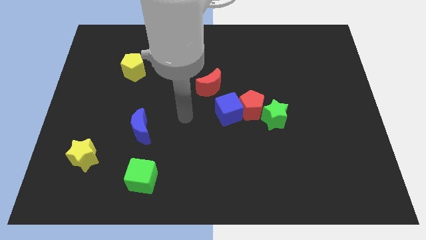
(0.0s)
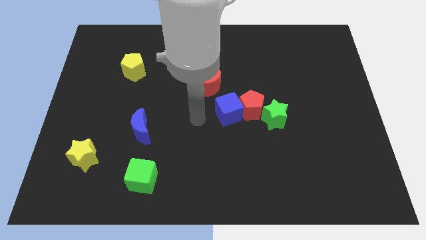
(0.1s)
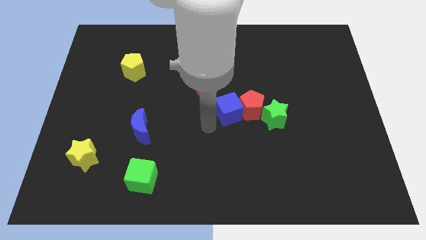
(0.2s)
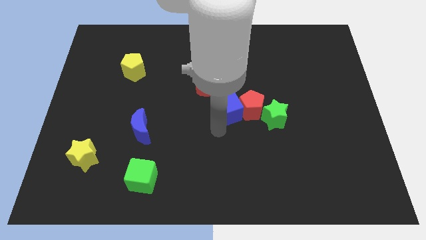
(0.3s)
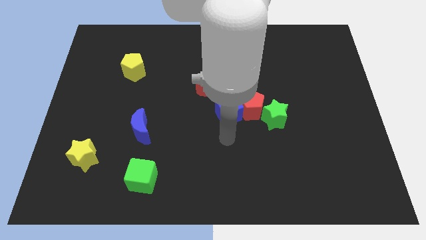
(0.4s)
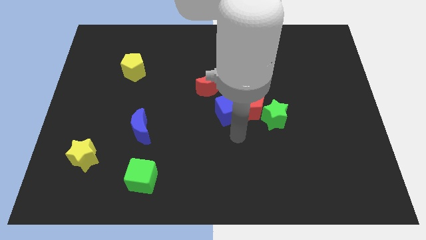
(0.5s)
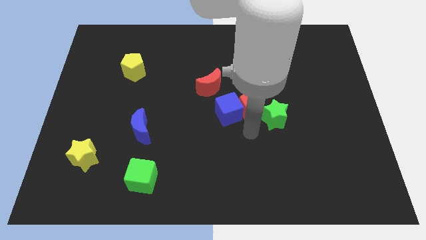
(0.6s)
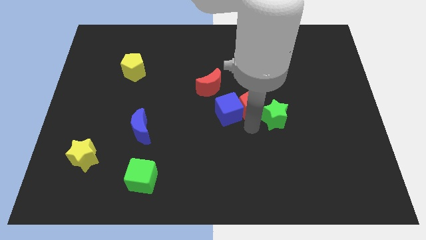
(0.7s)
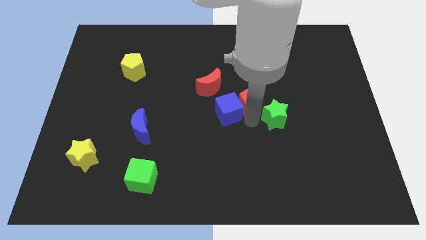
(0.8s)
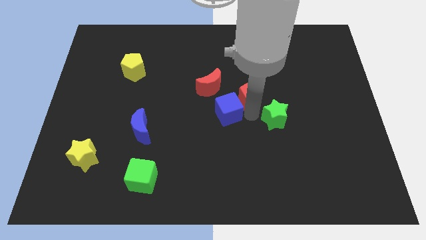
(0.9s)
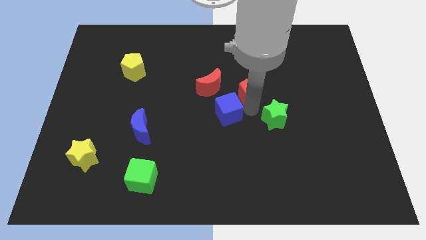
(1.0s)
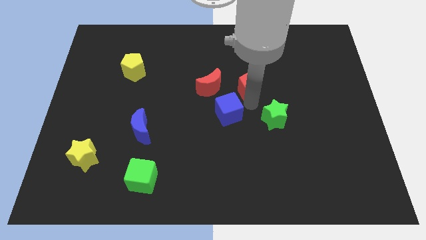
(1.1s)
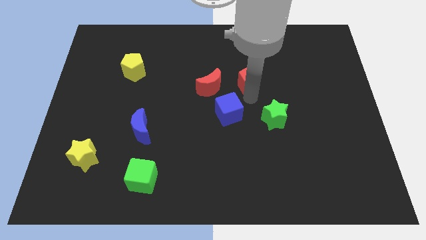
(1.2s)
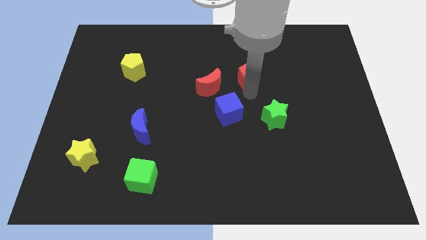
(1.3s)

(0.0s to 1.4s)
move the red pentagon away from the blue cube and green star

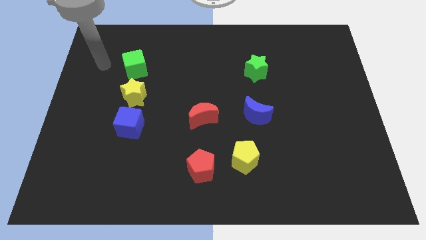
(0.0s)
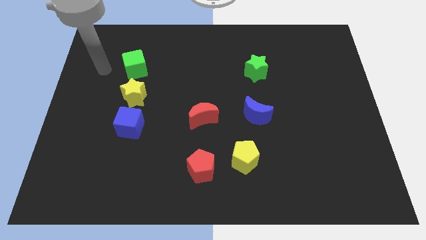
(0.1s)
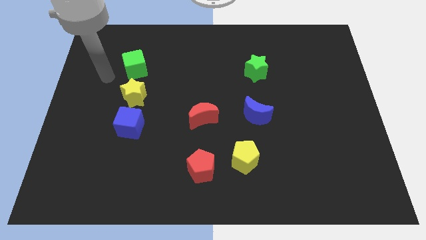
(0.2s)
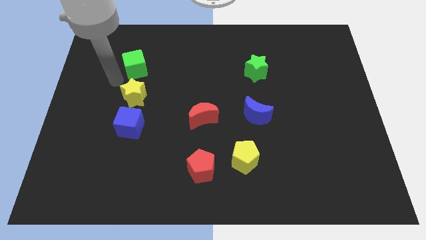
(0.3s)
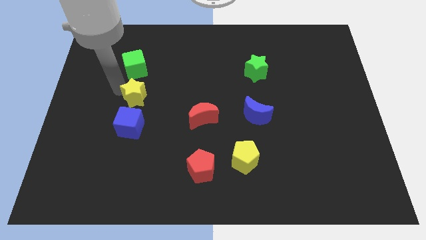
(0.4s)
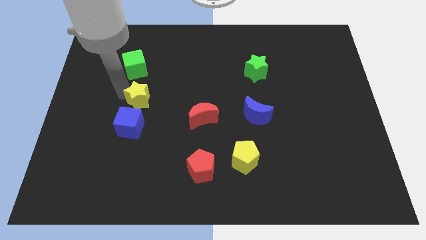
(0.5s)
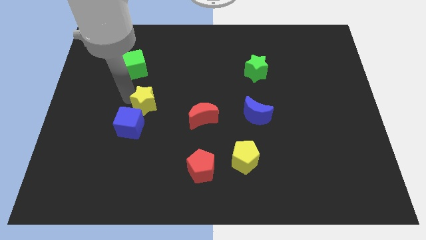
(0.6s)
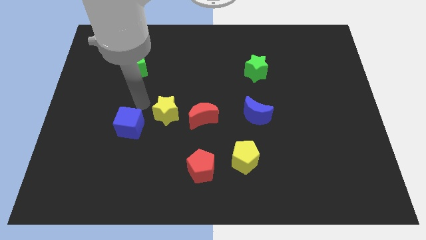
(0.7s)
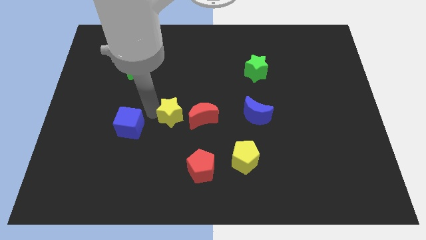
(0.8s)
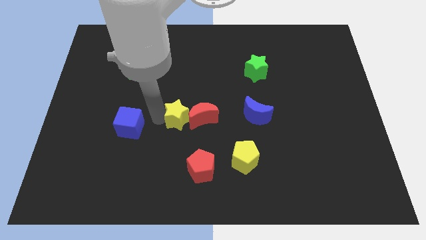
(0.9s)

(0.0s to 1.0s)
pull the blue cube apart from the yellow star

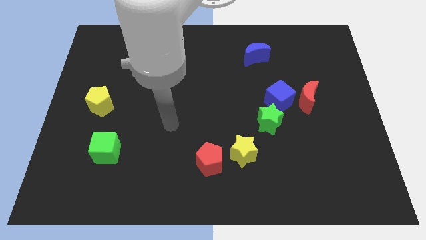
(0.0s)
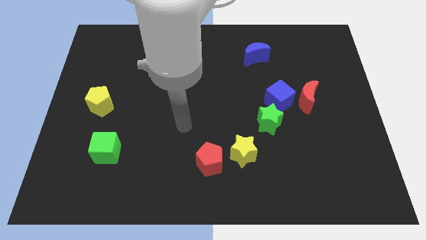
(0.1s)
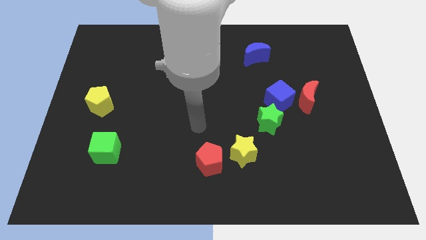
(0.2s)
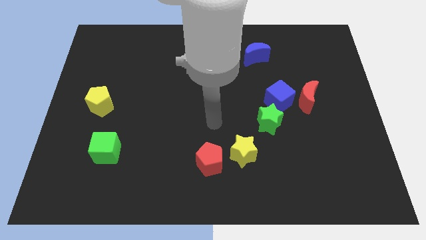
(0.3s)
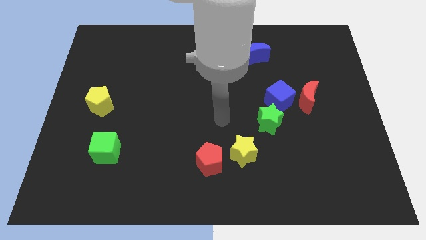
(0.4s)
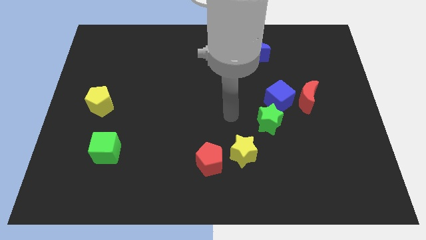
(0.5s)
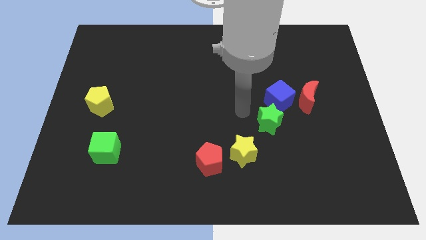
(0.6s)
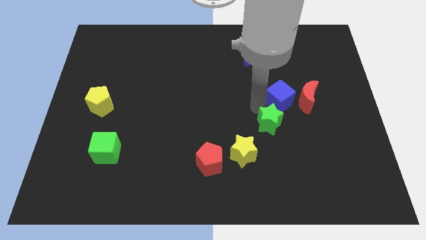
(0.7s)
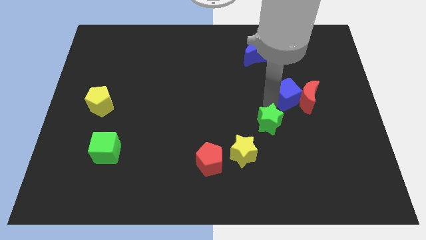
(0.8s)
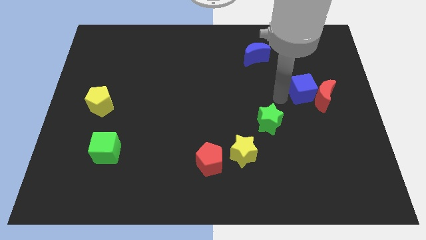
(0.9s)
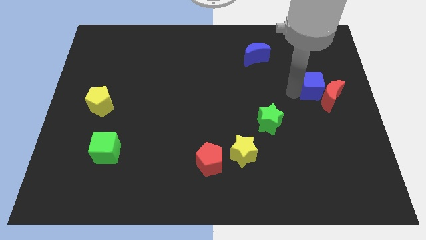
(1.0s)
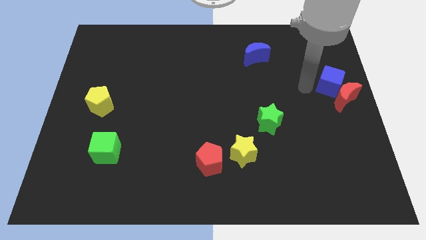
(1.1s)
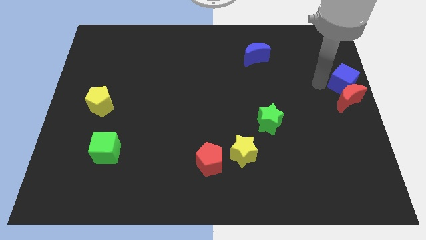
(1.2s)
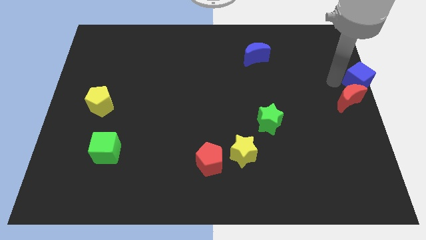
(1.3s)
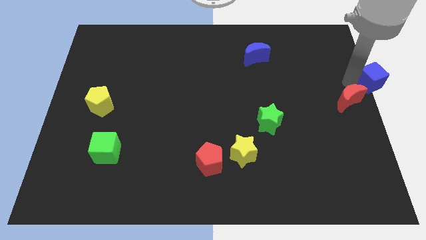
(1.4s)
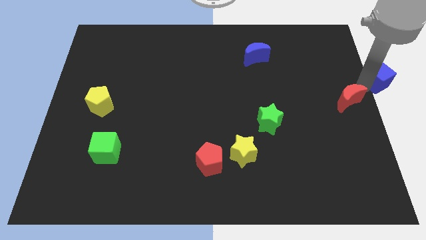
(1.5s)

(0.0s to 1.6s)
pull the red moon apart from the blue cube

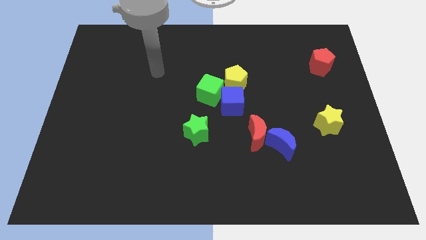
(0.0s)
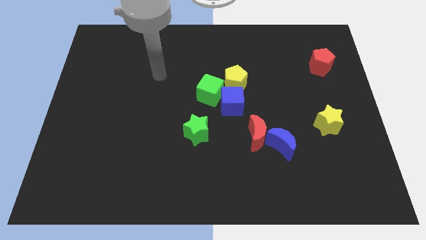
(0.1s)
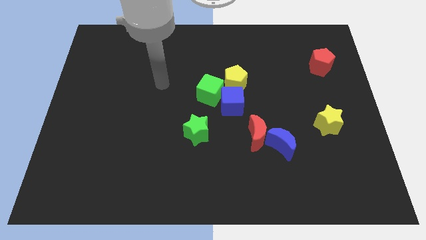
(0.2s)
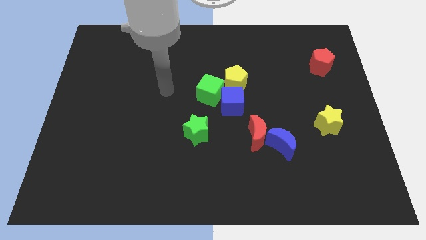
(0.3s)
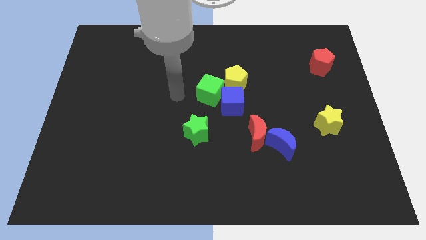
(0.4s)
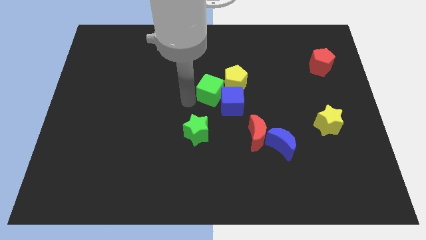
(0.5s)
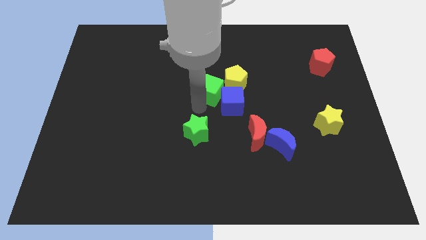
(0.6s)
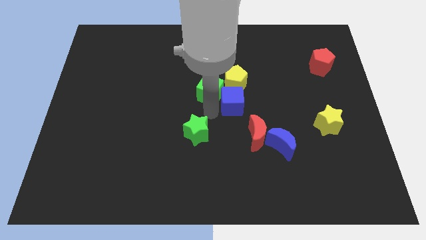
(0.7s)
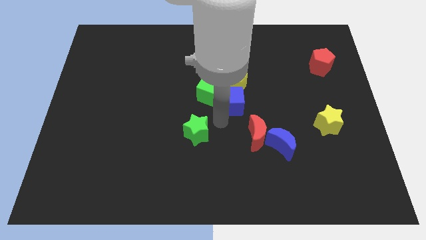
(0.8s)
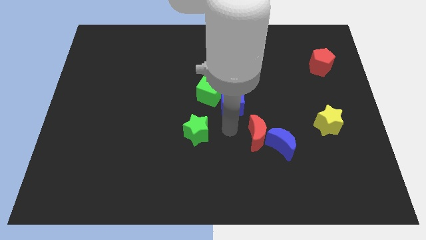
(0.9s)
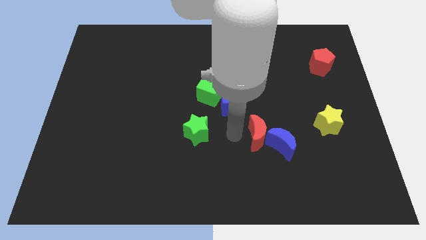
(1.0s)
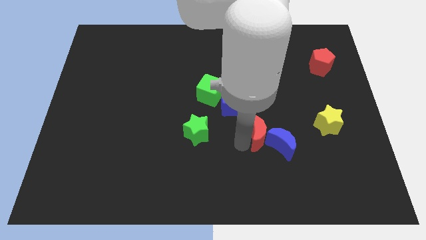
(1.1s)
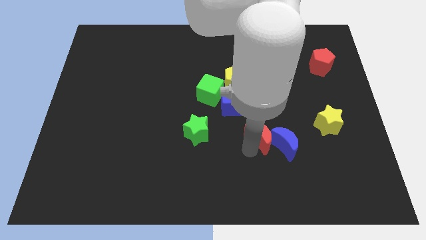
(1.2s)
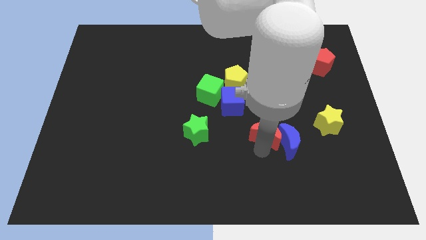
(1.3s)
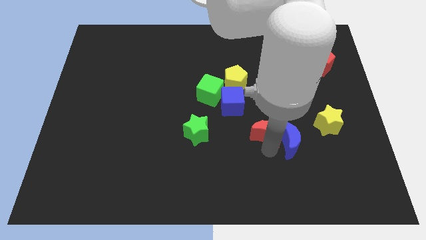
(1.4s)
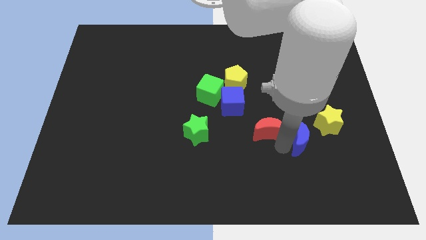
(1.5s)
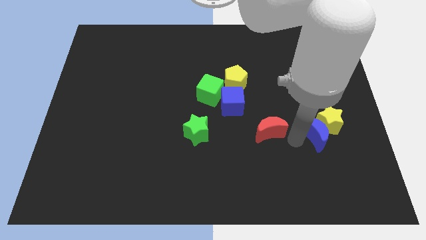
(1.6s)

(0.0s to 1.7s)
move the red moon away from the blue moon

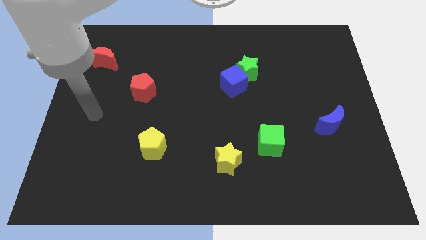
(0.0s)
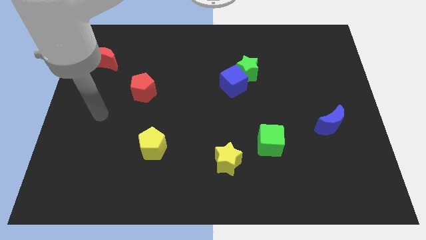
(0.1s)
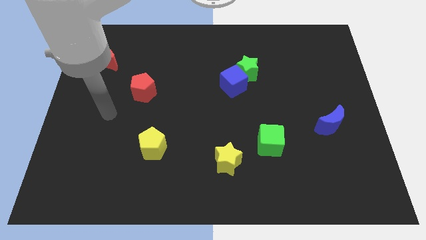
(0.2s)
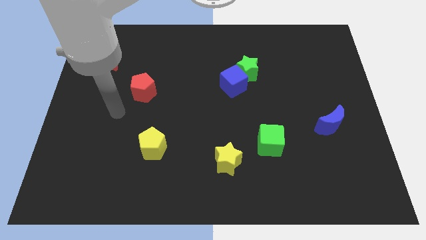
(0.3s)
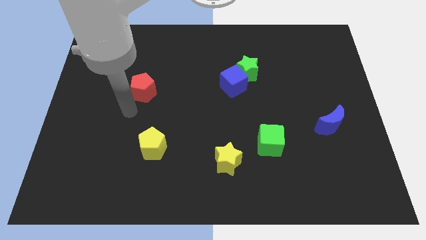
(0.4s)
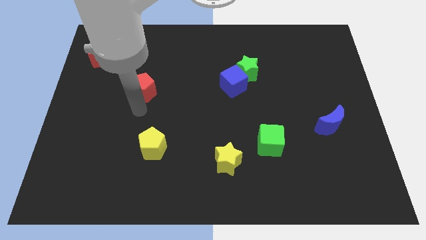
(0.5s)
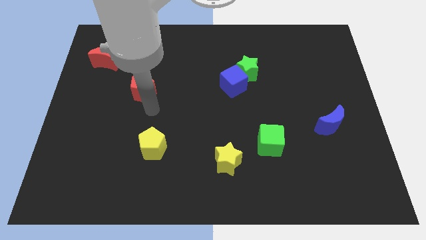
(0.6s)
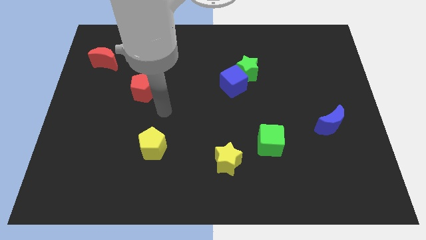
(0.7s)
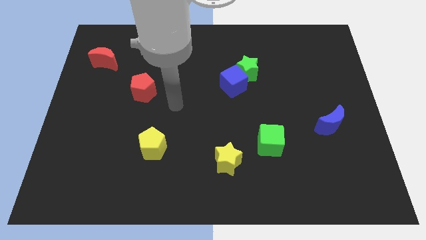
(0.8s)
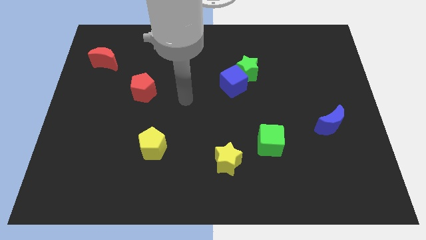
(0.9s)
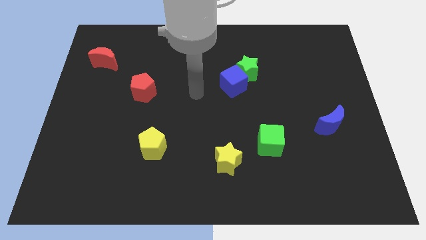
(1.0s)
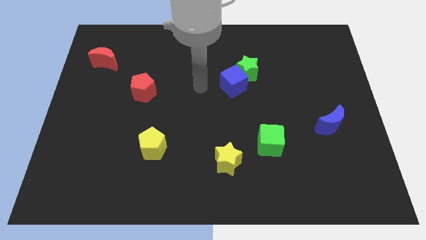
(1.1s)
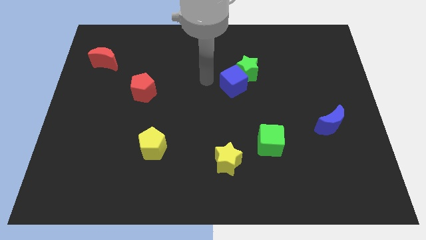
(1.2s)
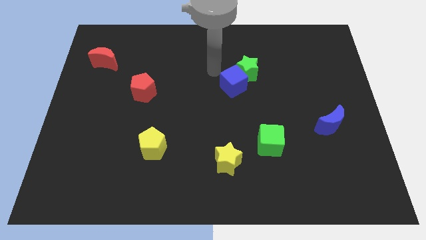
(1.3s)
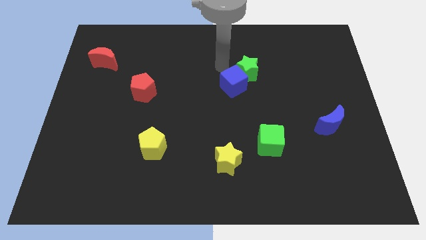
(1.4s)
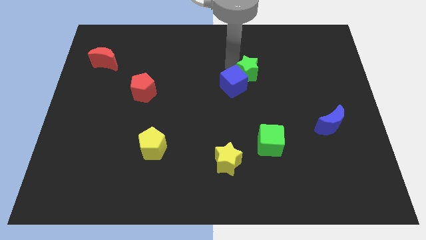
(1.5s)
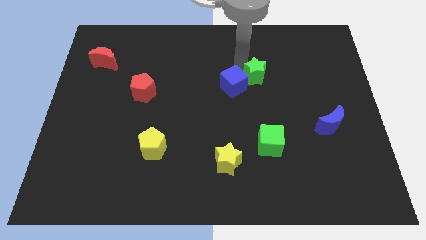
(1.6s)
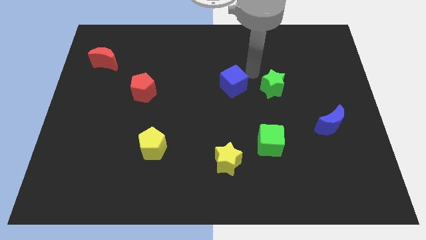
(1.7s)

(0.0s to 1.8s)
separate the blue cube from the green star

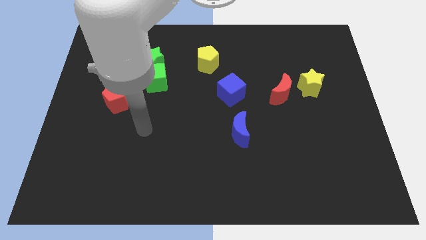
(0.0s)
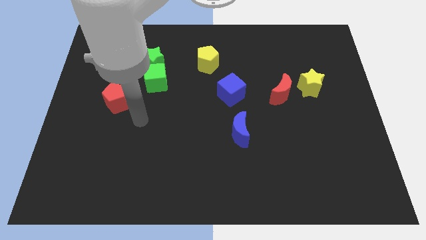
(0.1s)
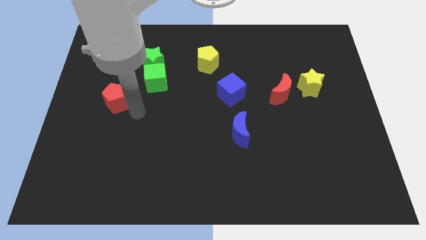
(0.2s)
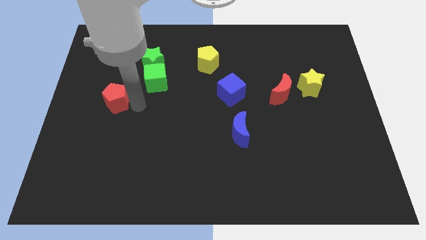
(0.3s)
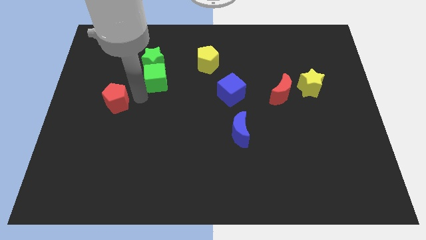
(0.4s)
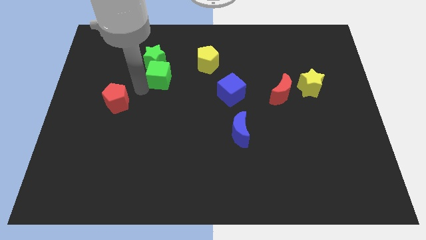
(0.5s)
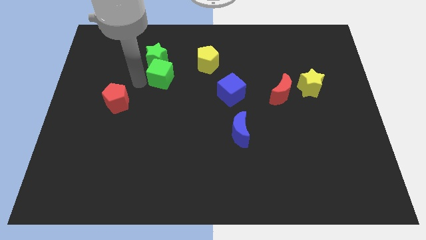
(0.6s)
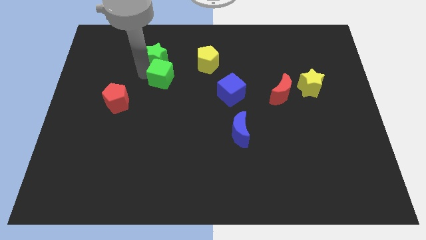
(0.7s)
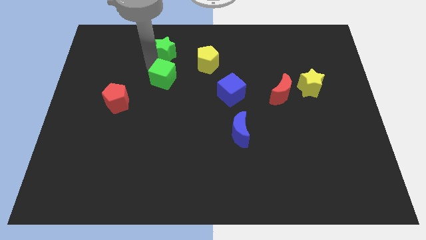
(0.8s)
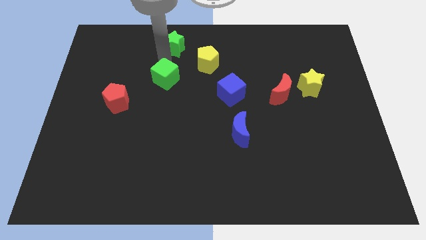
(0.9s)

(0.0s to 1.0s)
pull the green cube apart from the green star

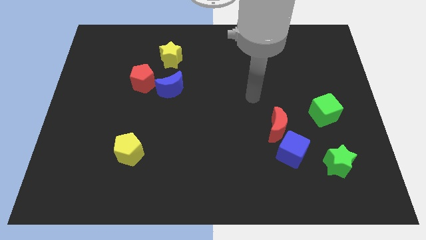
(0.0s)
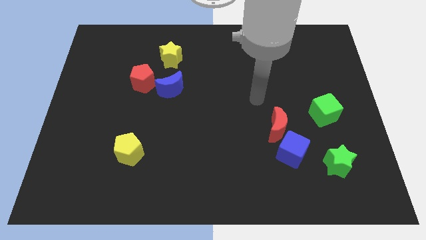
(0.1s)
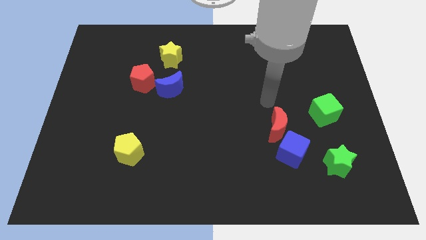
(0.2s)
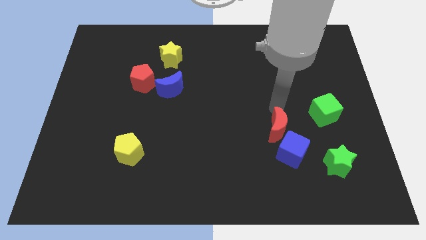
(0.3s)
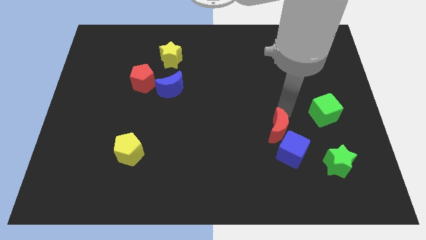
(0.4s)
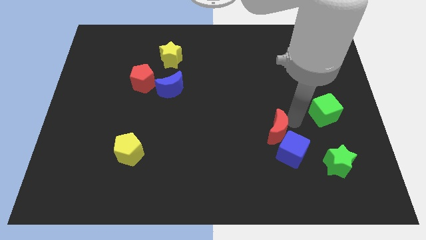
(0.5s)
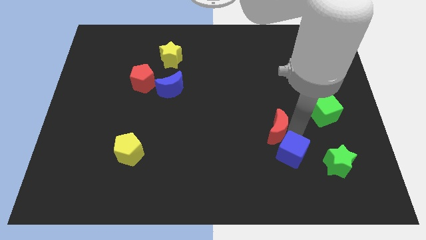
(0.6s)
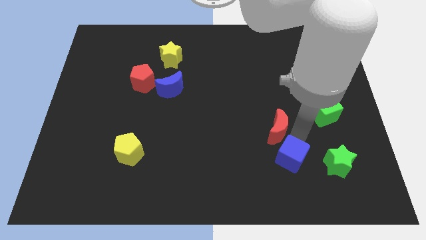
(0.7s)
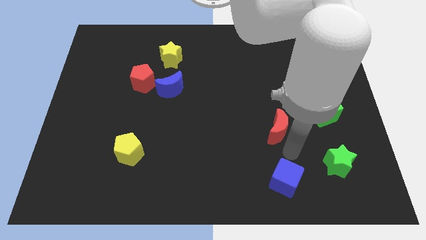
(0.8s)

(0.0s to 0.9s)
separate the red moon from the blue cube
